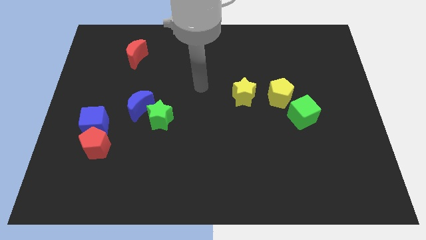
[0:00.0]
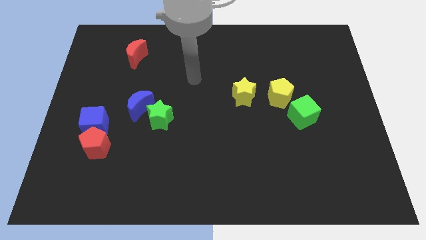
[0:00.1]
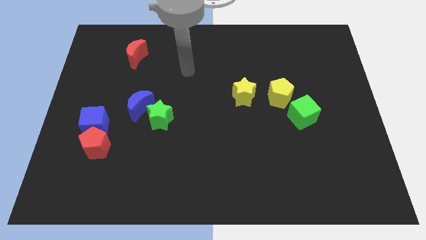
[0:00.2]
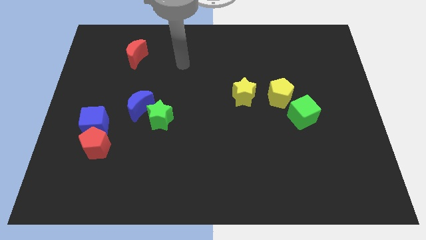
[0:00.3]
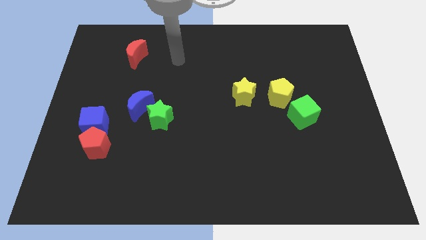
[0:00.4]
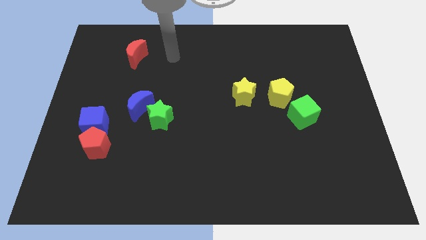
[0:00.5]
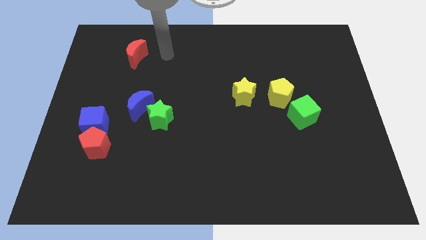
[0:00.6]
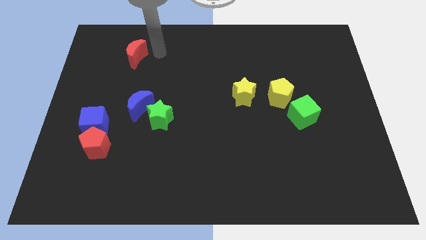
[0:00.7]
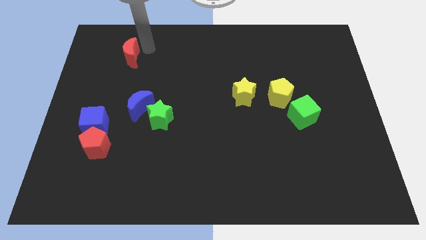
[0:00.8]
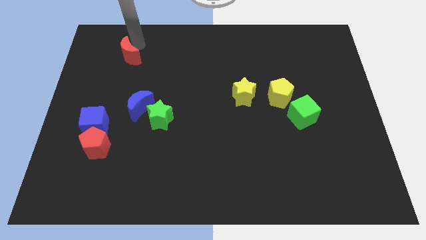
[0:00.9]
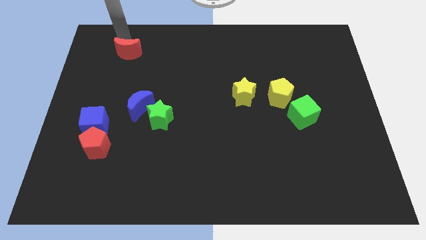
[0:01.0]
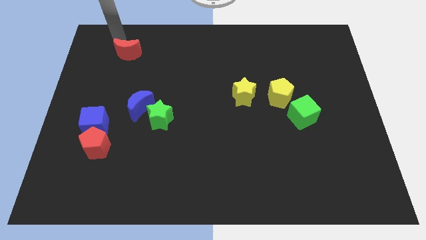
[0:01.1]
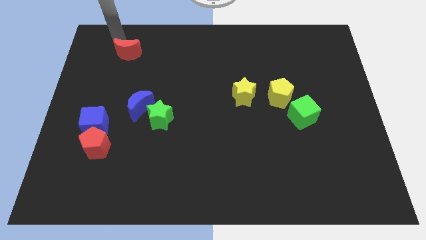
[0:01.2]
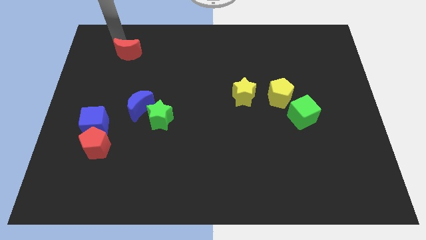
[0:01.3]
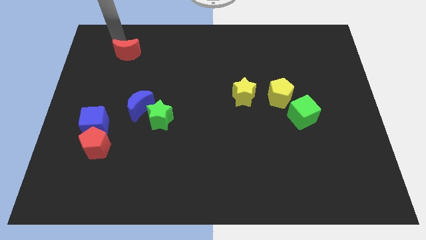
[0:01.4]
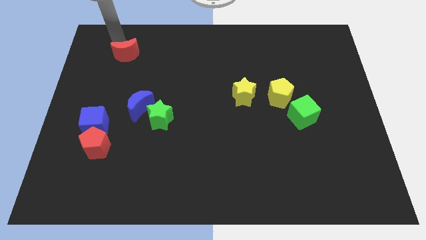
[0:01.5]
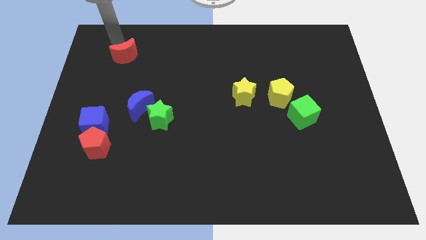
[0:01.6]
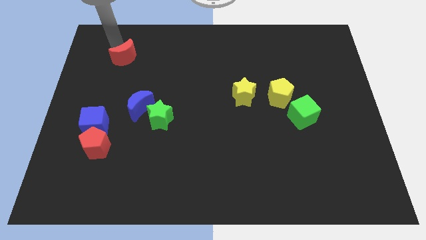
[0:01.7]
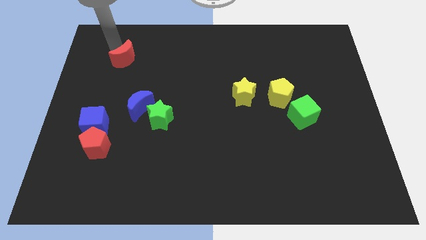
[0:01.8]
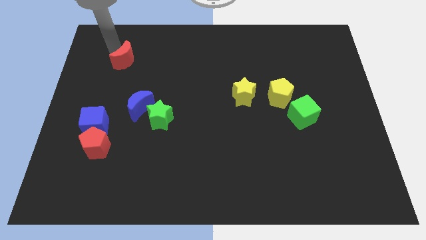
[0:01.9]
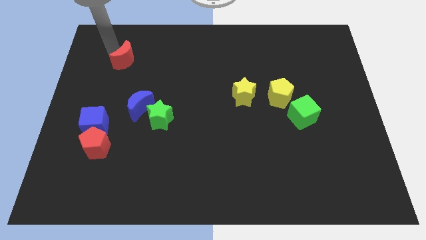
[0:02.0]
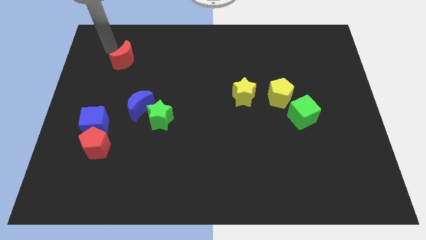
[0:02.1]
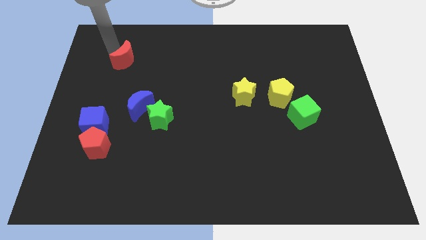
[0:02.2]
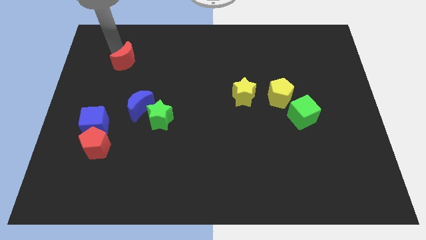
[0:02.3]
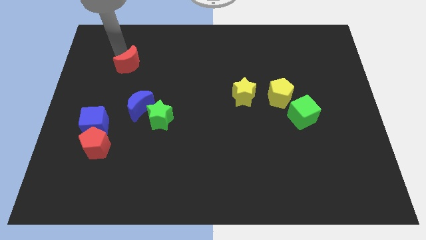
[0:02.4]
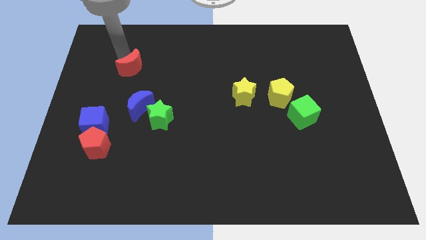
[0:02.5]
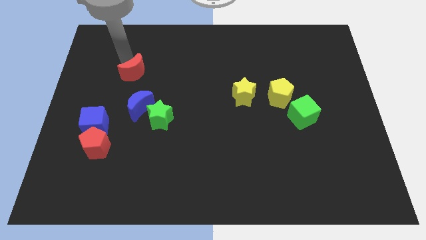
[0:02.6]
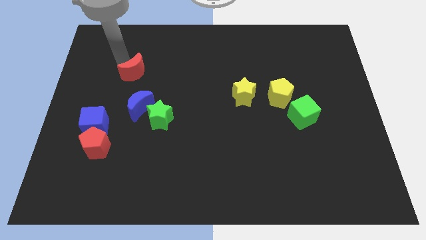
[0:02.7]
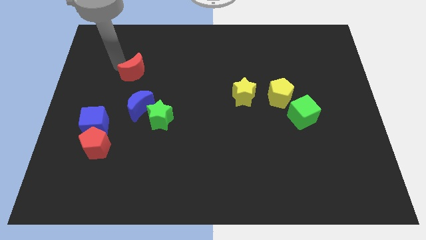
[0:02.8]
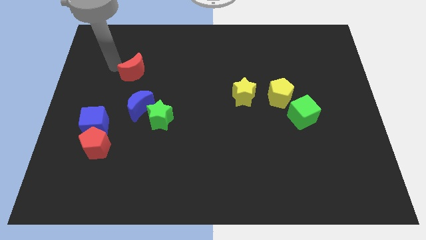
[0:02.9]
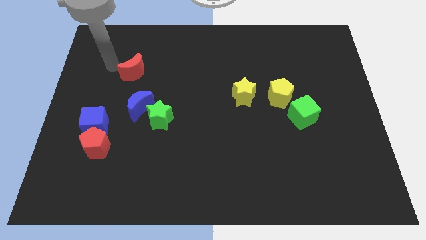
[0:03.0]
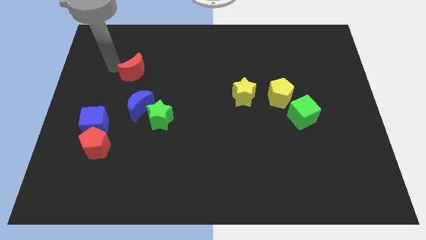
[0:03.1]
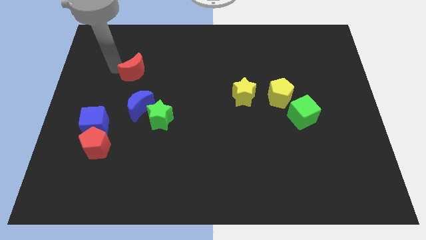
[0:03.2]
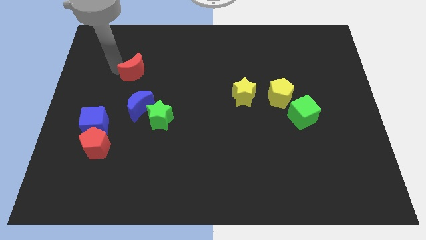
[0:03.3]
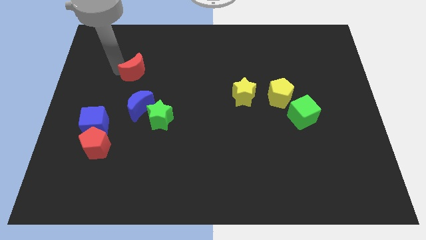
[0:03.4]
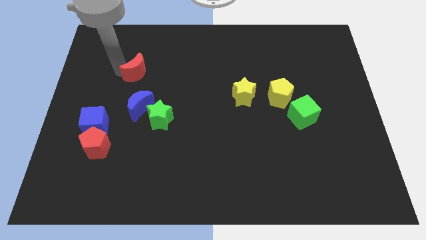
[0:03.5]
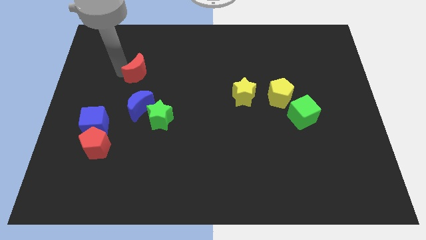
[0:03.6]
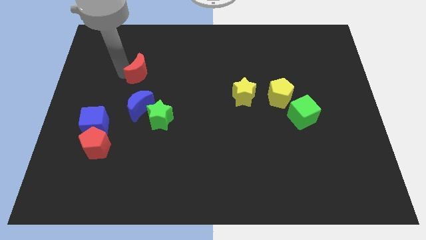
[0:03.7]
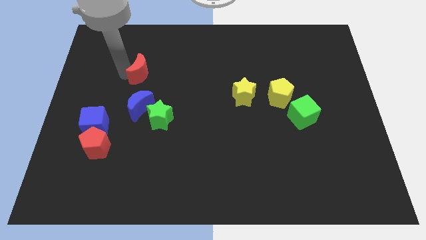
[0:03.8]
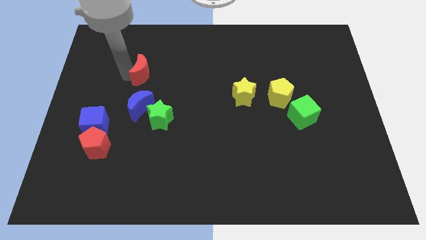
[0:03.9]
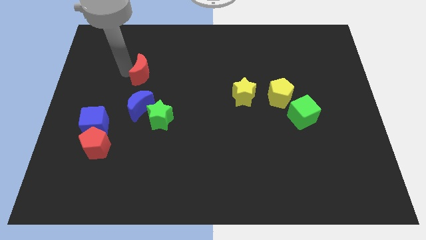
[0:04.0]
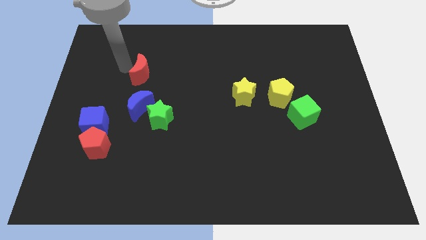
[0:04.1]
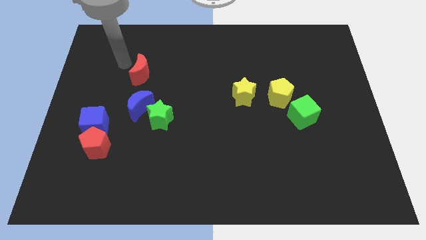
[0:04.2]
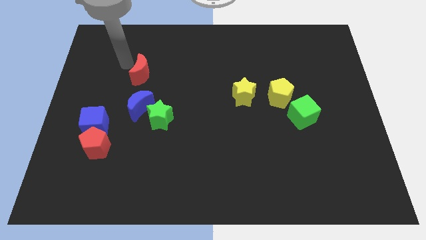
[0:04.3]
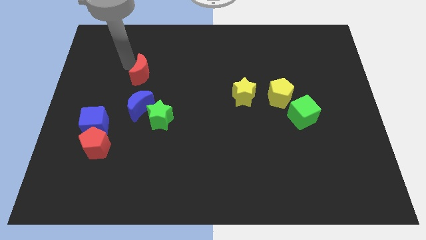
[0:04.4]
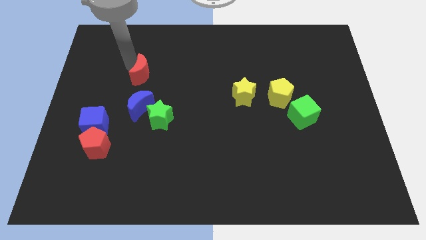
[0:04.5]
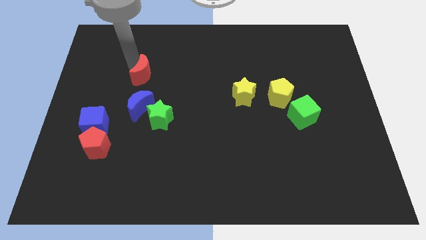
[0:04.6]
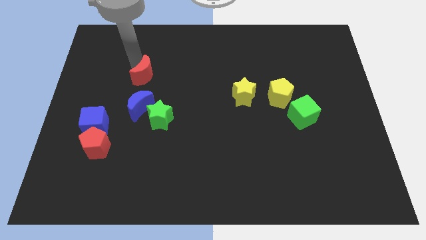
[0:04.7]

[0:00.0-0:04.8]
push the red moon down and to the right diagonally a little bit

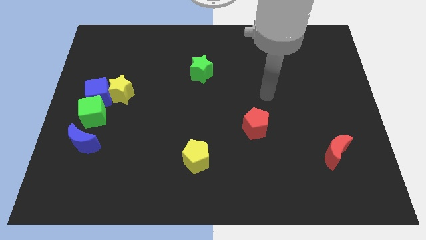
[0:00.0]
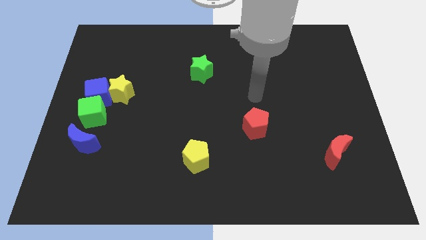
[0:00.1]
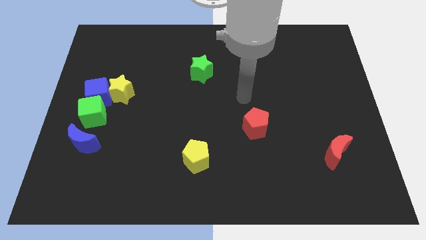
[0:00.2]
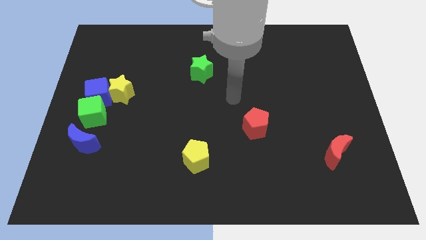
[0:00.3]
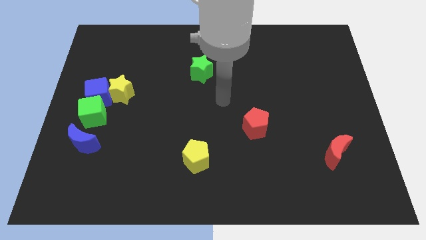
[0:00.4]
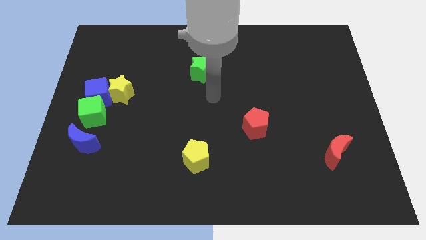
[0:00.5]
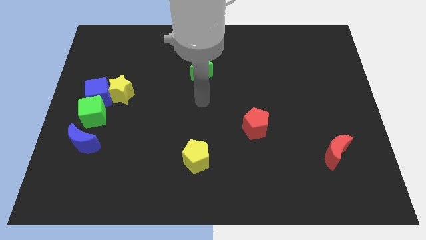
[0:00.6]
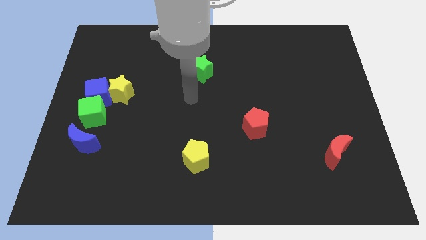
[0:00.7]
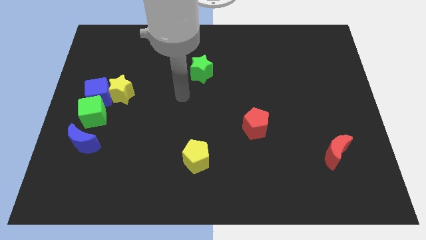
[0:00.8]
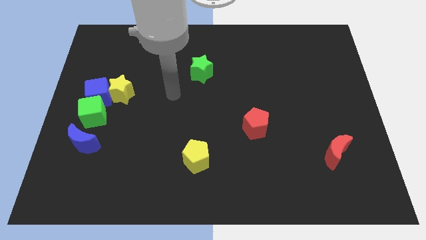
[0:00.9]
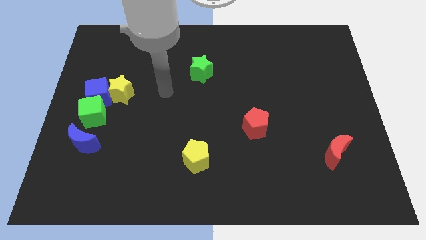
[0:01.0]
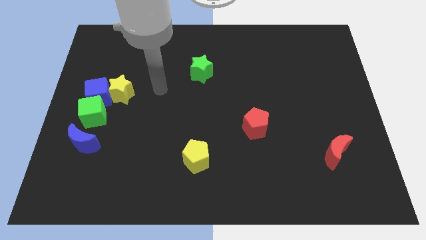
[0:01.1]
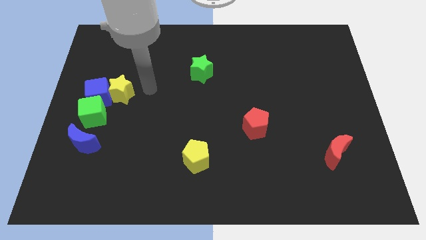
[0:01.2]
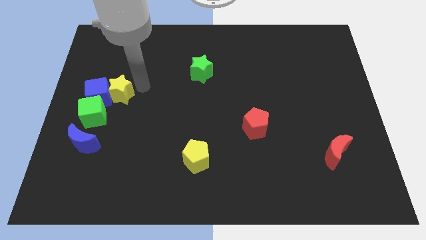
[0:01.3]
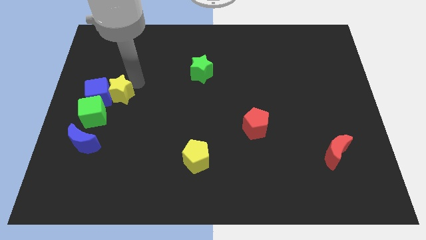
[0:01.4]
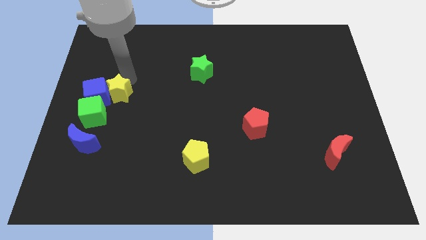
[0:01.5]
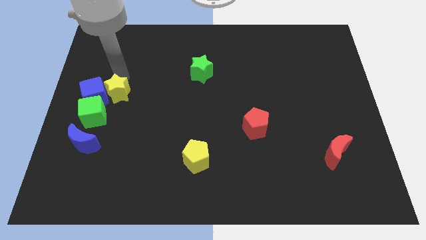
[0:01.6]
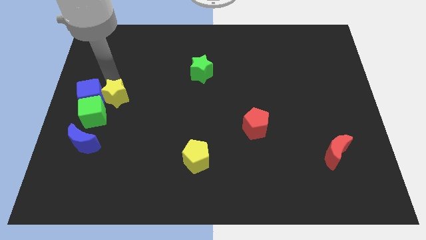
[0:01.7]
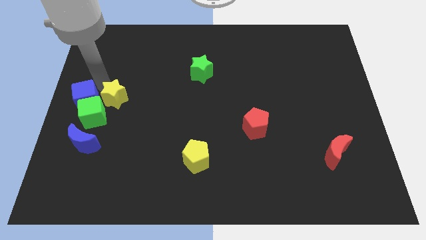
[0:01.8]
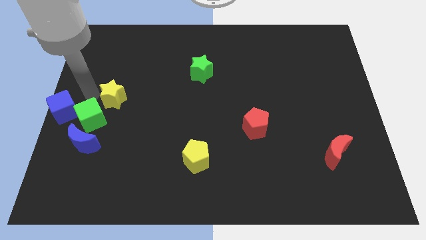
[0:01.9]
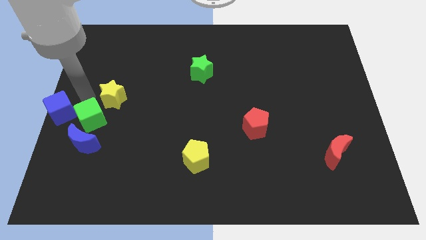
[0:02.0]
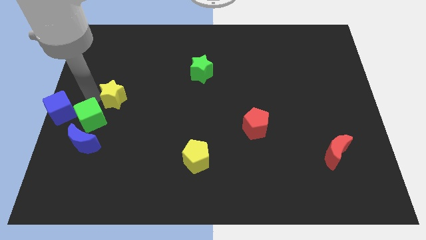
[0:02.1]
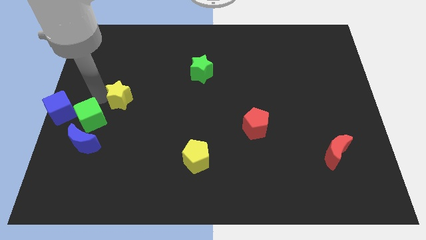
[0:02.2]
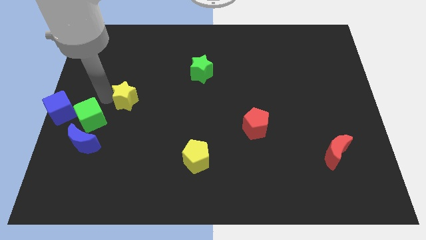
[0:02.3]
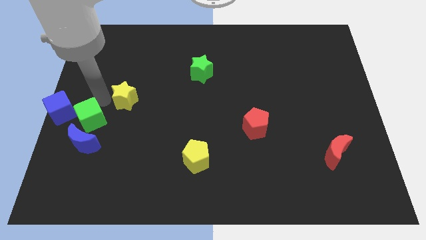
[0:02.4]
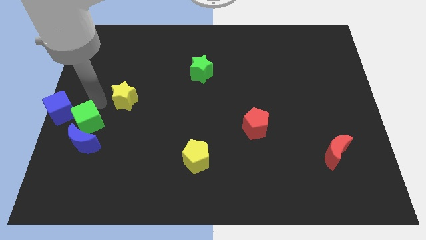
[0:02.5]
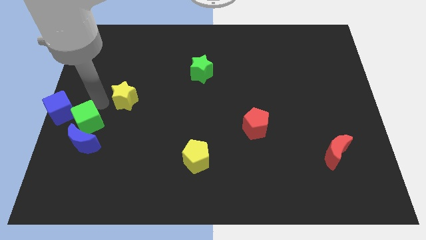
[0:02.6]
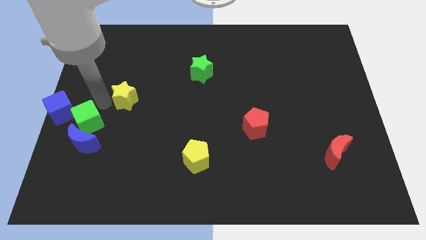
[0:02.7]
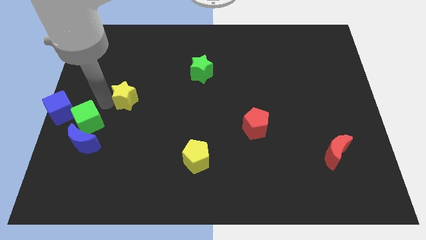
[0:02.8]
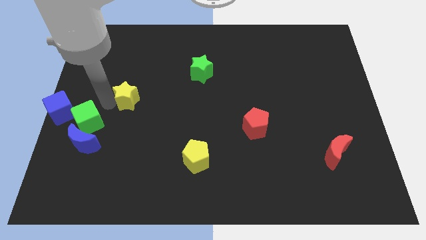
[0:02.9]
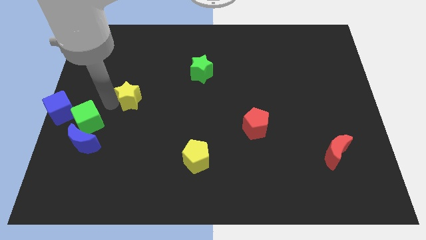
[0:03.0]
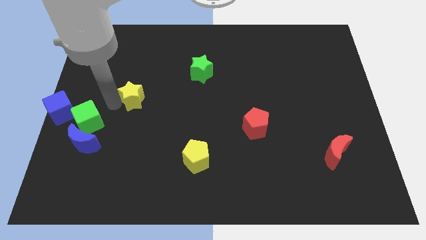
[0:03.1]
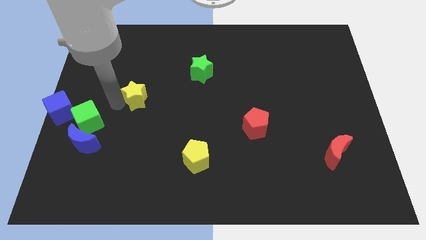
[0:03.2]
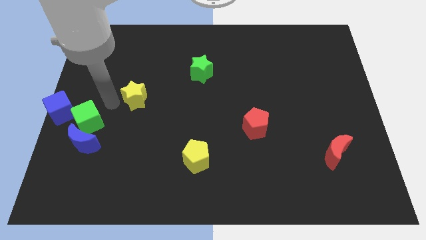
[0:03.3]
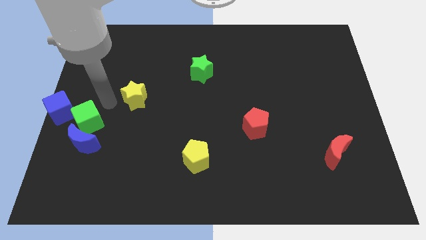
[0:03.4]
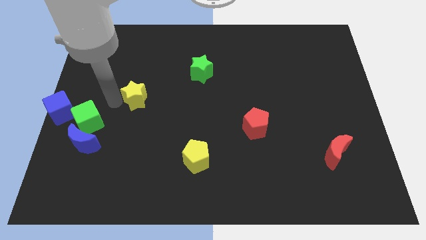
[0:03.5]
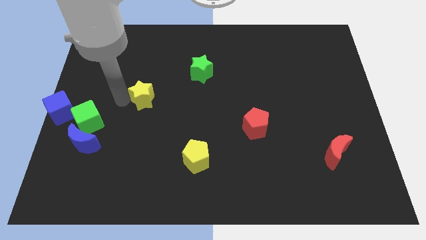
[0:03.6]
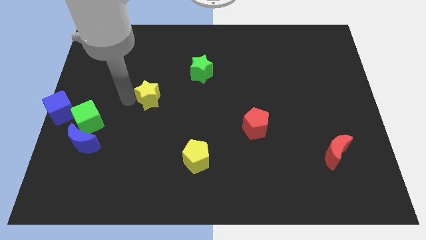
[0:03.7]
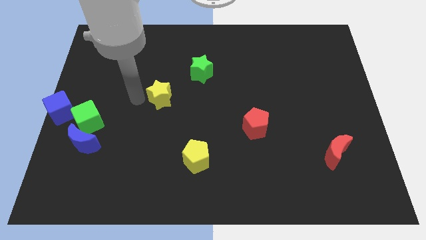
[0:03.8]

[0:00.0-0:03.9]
slide the yellow star a little bit to the right
